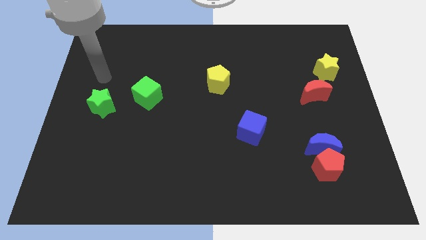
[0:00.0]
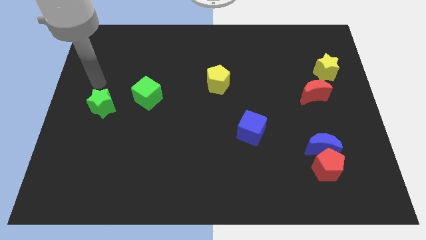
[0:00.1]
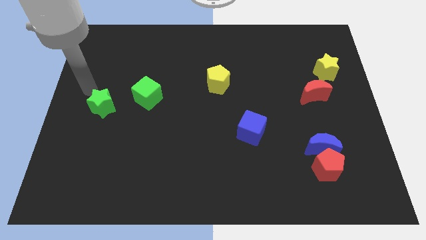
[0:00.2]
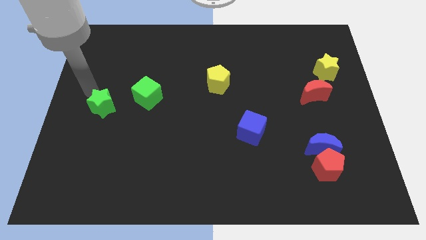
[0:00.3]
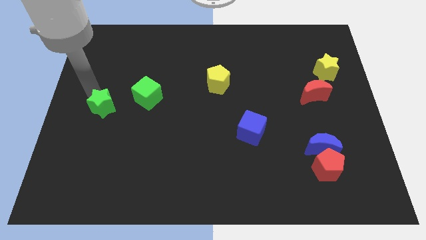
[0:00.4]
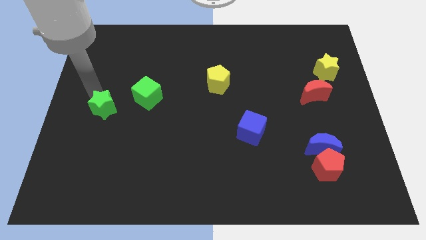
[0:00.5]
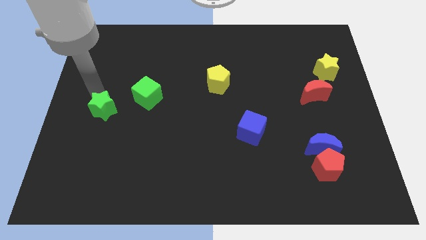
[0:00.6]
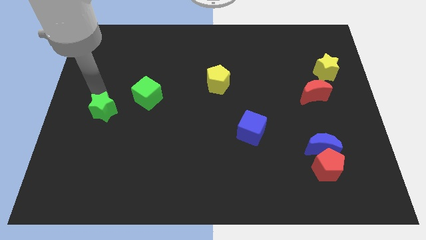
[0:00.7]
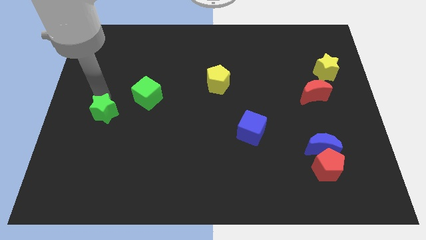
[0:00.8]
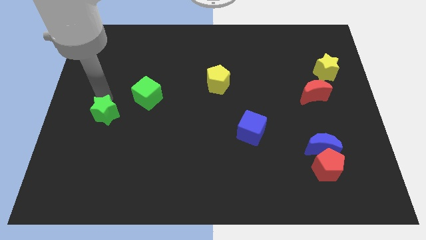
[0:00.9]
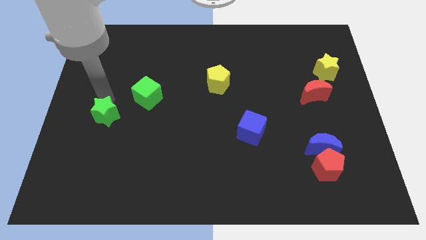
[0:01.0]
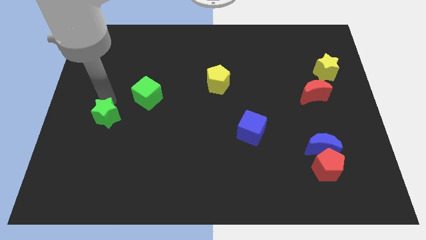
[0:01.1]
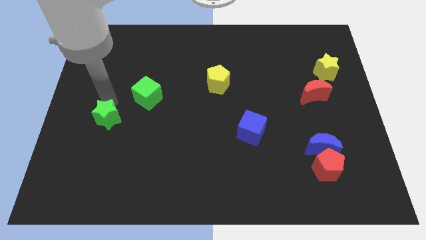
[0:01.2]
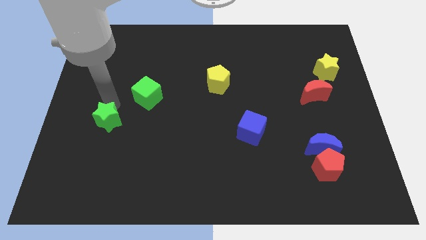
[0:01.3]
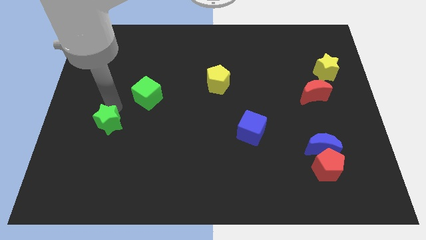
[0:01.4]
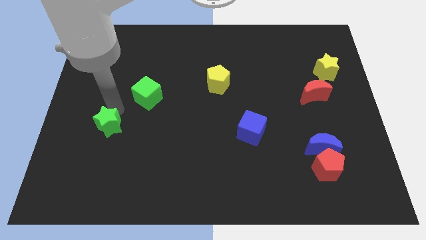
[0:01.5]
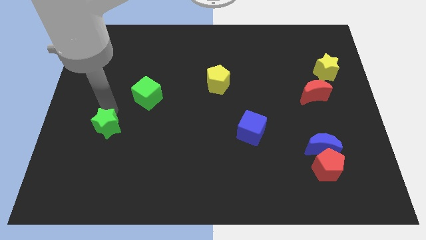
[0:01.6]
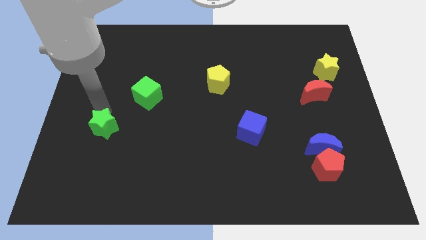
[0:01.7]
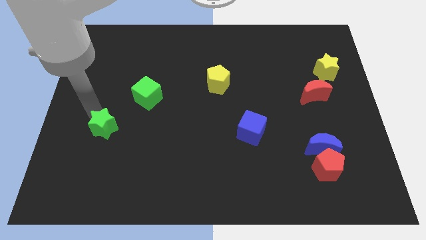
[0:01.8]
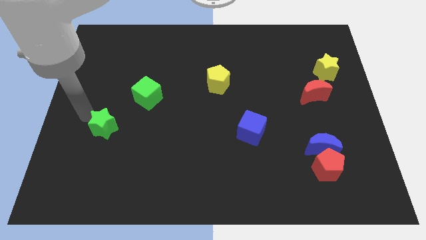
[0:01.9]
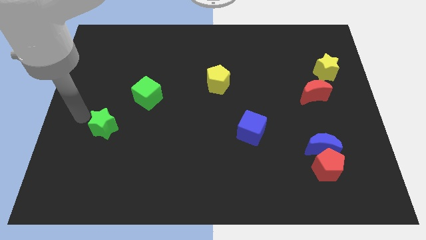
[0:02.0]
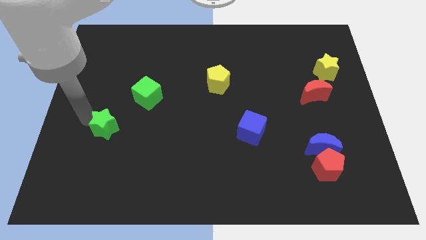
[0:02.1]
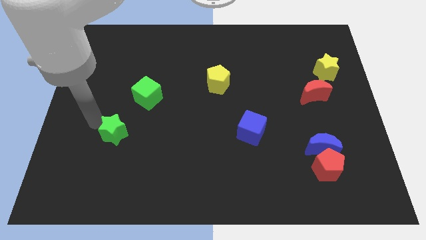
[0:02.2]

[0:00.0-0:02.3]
move the green star diagonally downwards and right a bit

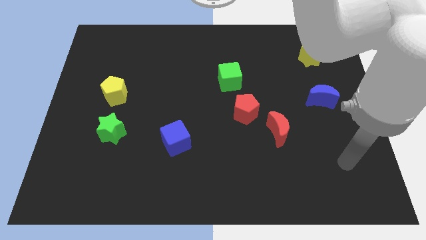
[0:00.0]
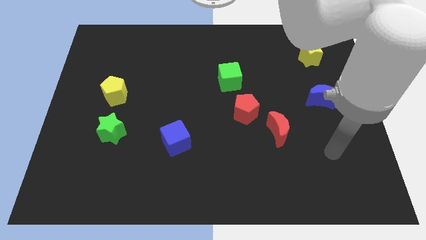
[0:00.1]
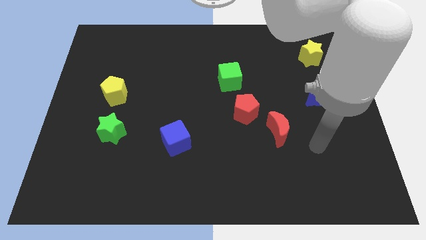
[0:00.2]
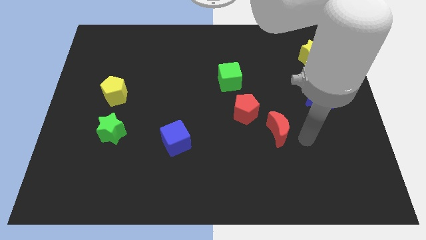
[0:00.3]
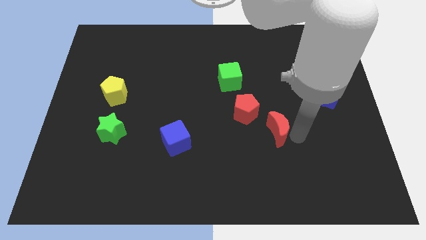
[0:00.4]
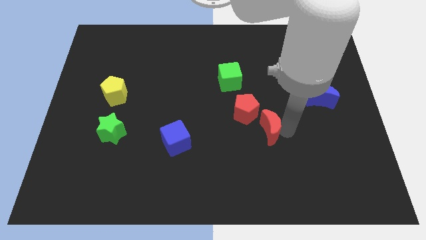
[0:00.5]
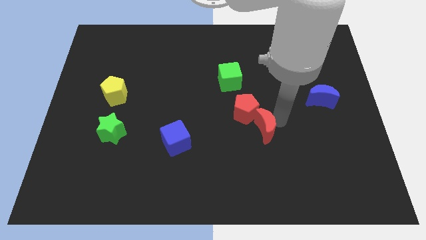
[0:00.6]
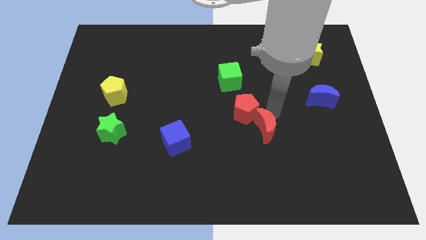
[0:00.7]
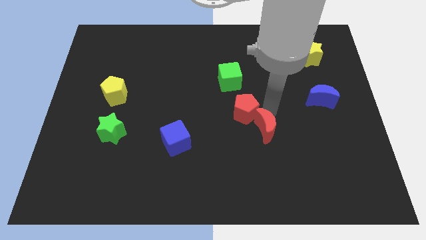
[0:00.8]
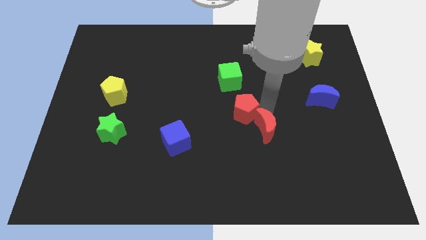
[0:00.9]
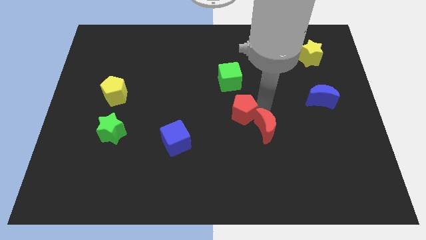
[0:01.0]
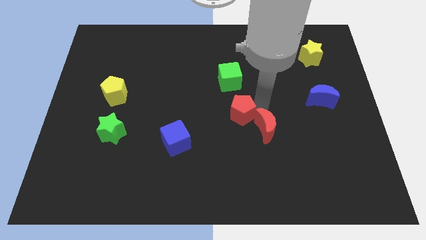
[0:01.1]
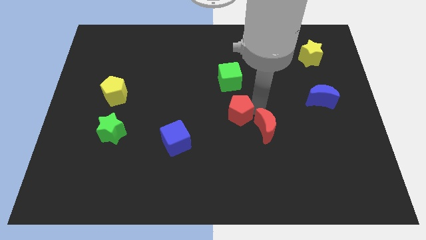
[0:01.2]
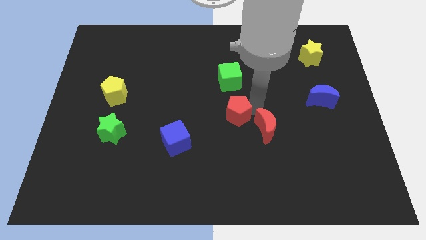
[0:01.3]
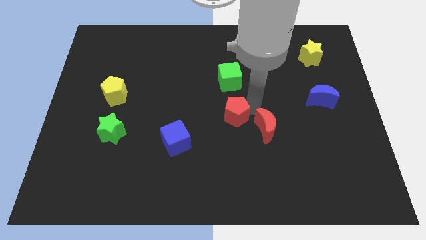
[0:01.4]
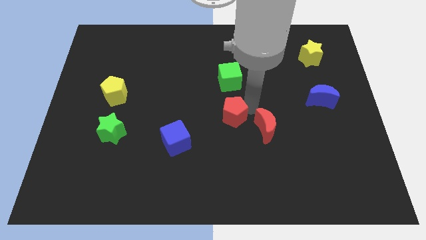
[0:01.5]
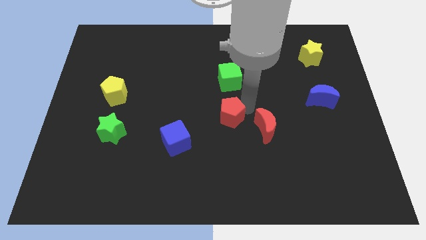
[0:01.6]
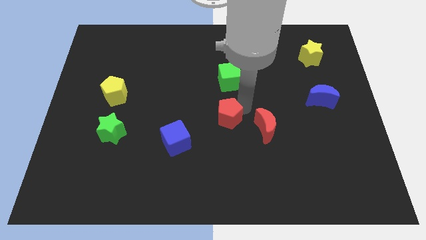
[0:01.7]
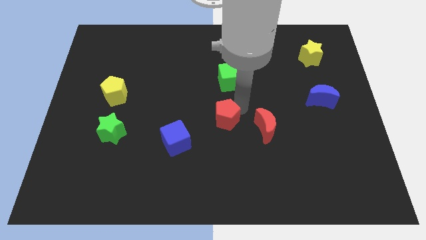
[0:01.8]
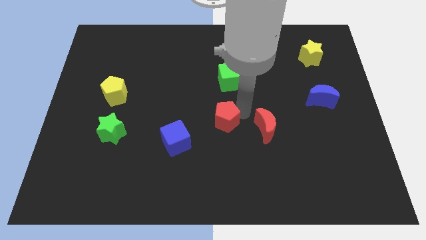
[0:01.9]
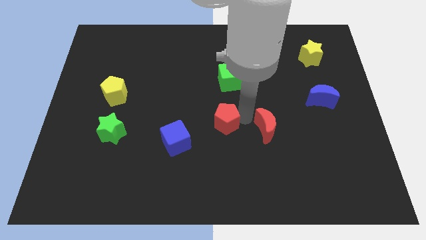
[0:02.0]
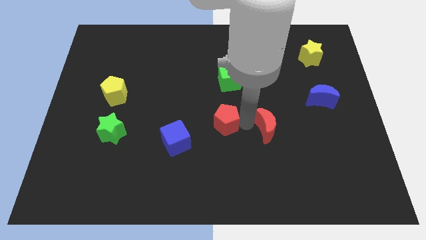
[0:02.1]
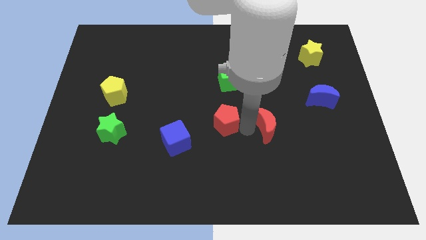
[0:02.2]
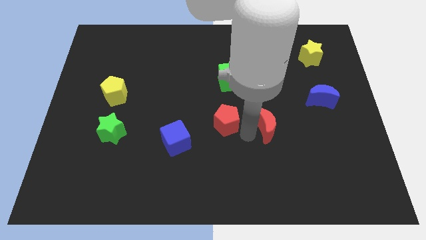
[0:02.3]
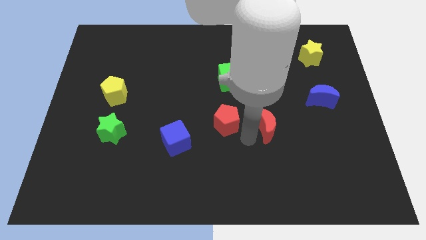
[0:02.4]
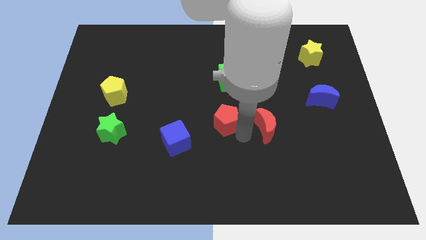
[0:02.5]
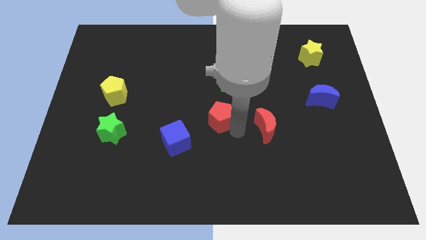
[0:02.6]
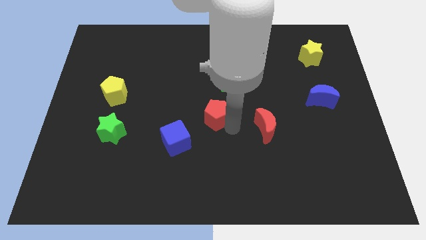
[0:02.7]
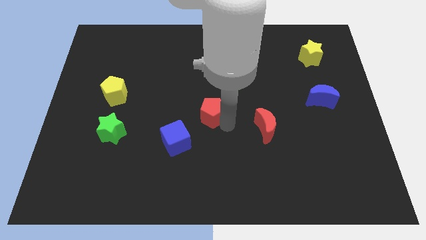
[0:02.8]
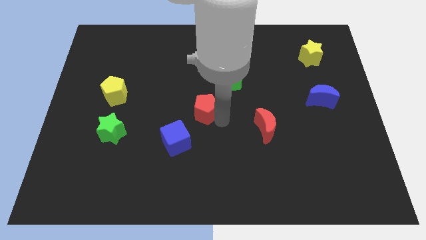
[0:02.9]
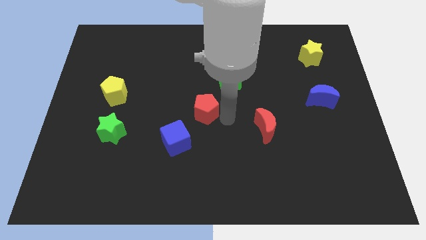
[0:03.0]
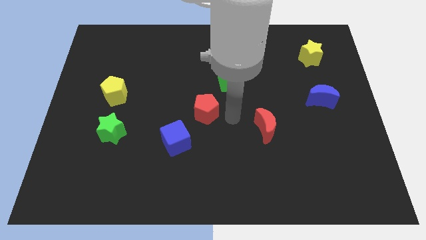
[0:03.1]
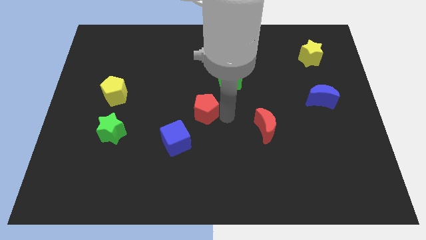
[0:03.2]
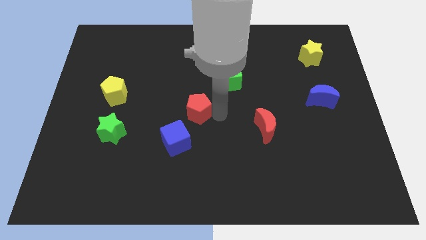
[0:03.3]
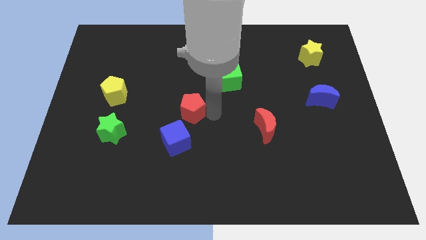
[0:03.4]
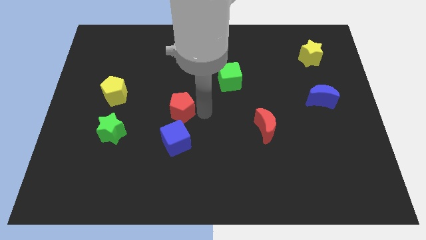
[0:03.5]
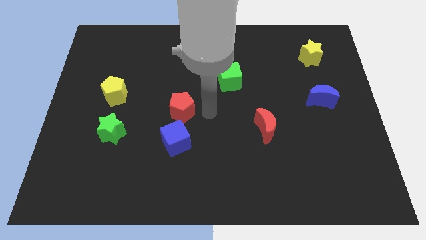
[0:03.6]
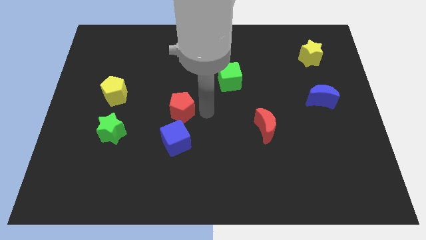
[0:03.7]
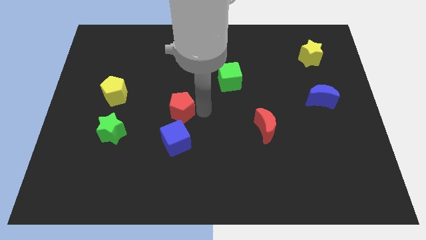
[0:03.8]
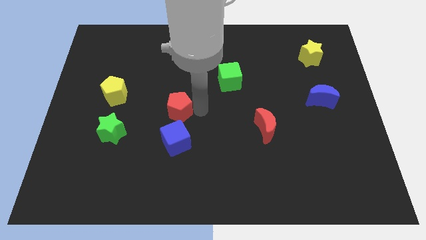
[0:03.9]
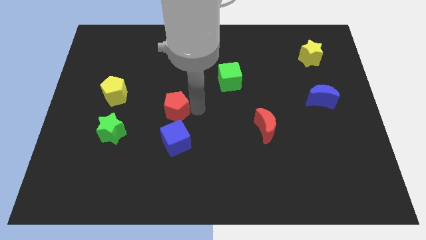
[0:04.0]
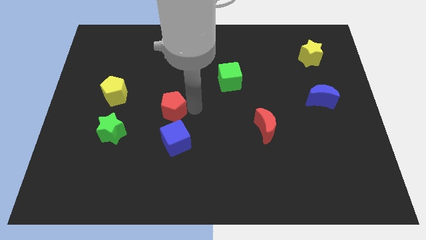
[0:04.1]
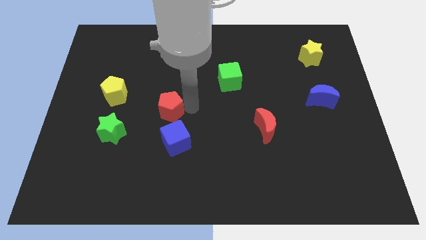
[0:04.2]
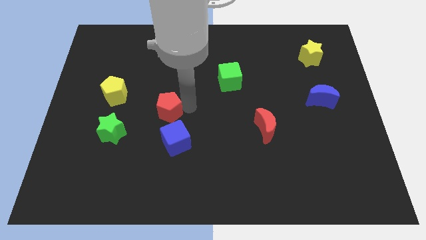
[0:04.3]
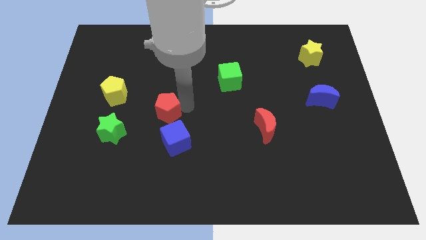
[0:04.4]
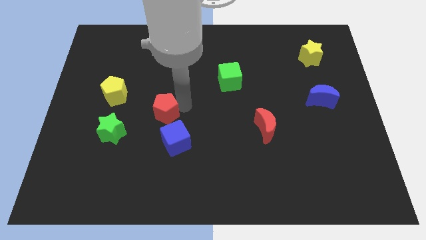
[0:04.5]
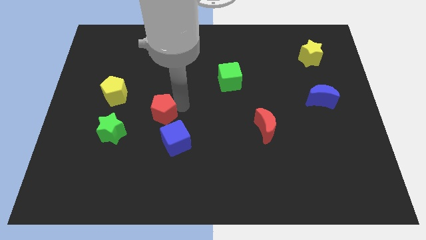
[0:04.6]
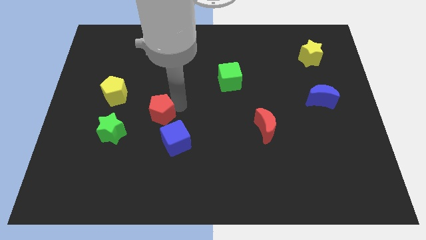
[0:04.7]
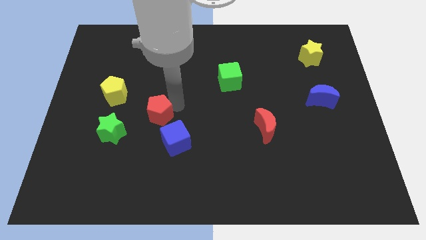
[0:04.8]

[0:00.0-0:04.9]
move the red pentagon to the left

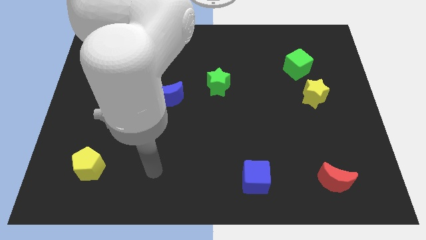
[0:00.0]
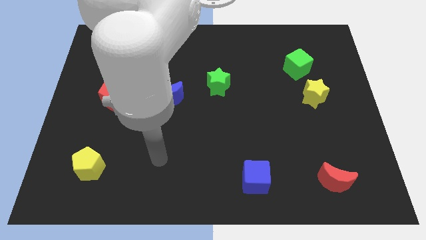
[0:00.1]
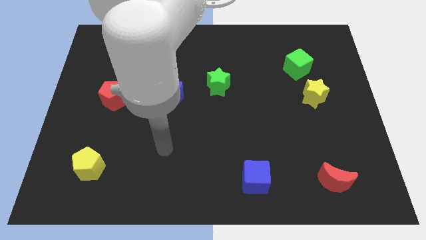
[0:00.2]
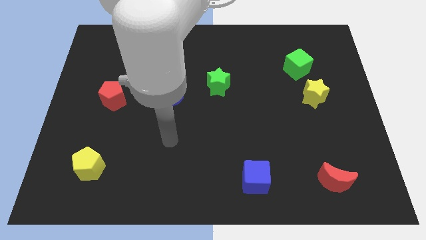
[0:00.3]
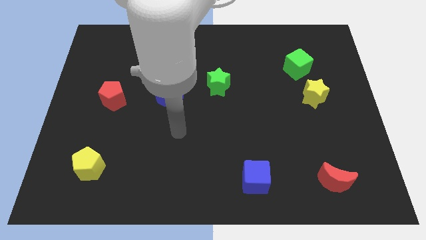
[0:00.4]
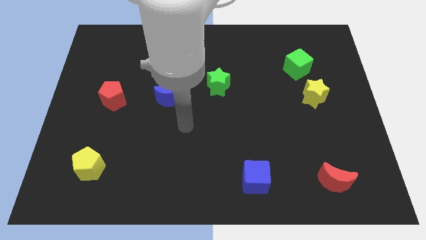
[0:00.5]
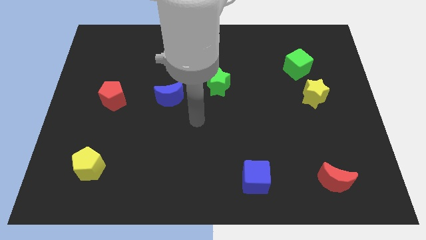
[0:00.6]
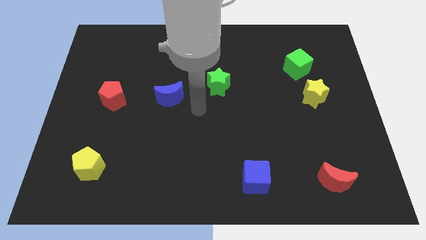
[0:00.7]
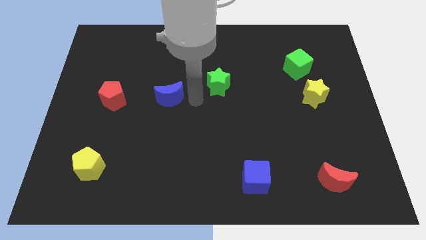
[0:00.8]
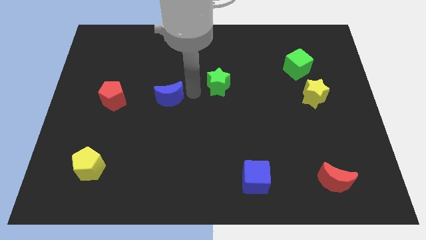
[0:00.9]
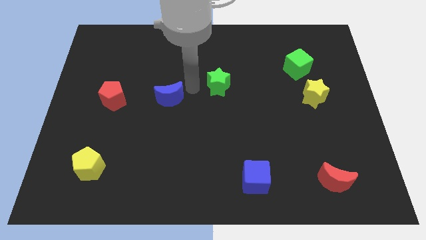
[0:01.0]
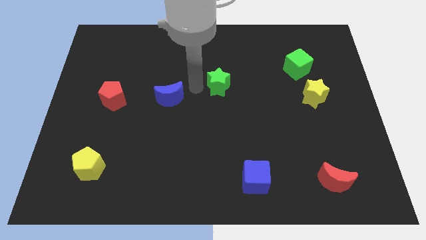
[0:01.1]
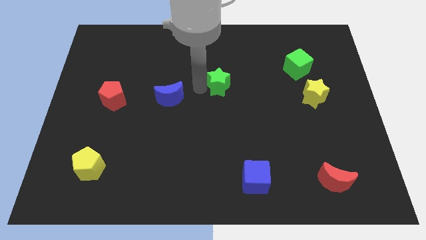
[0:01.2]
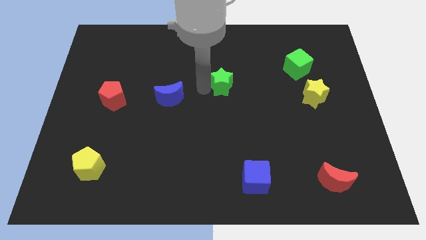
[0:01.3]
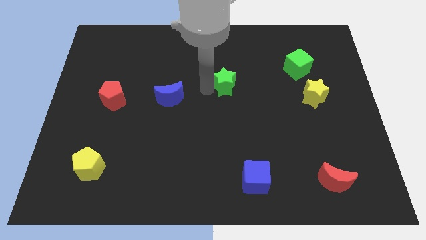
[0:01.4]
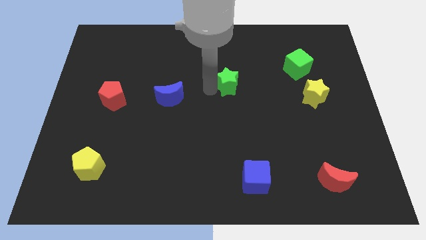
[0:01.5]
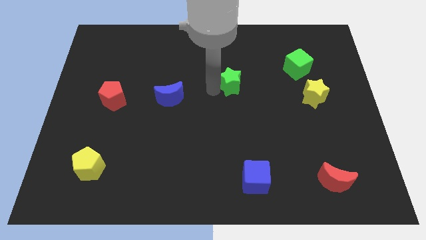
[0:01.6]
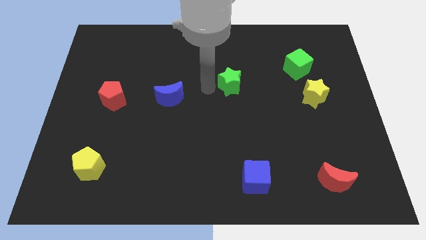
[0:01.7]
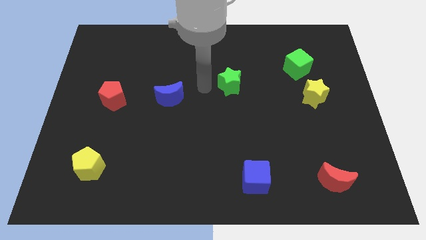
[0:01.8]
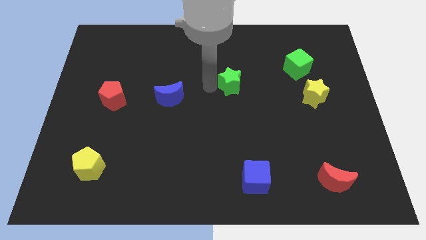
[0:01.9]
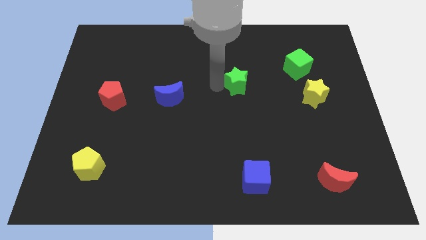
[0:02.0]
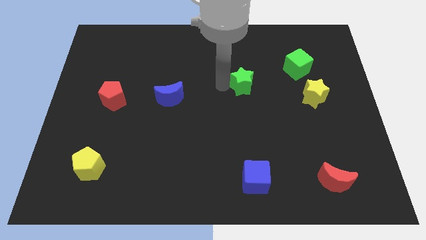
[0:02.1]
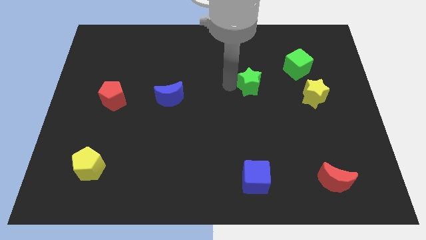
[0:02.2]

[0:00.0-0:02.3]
move the green star to the right slightly
